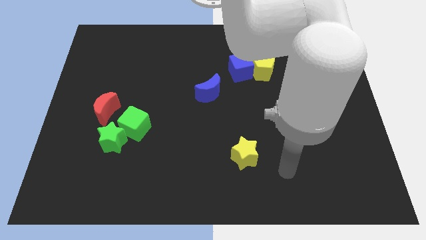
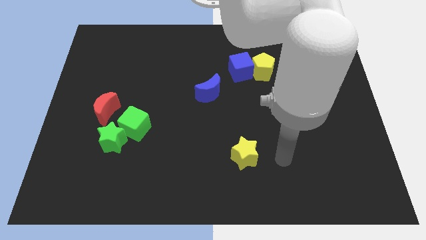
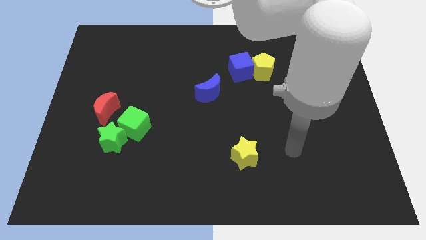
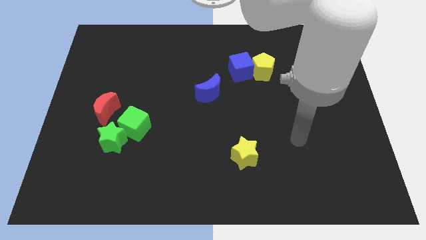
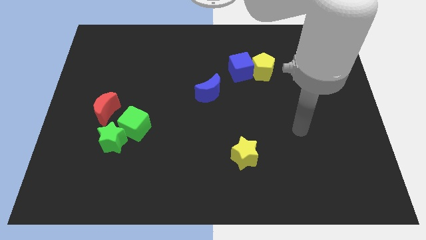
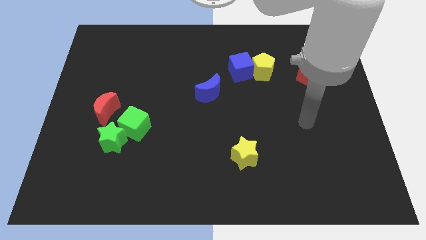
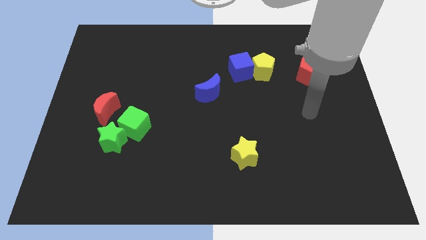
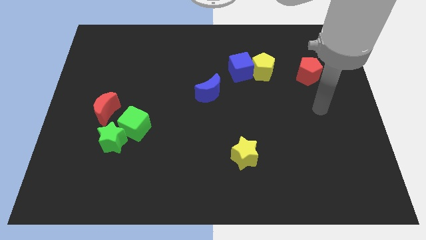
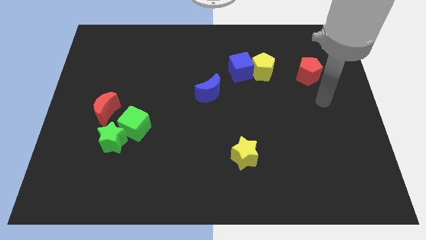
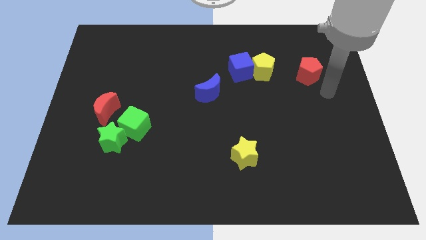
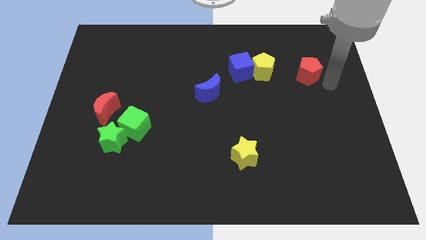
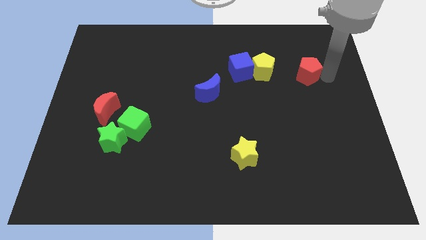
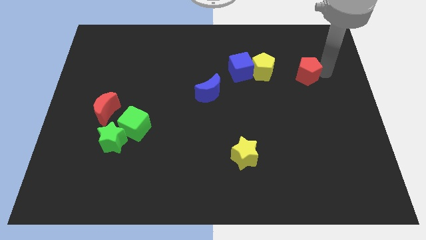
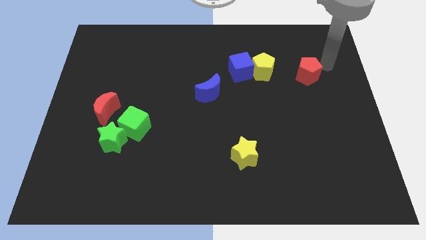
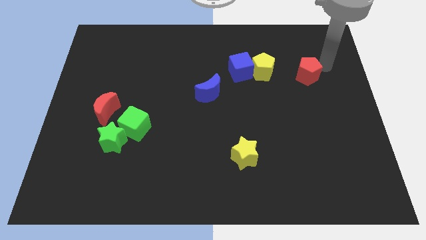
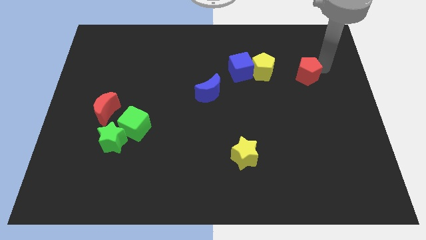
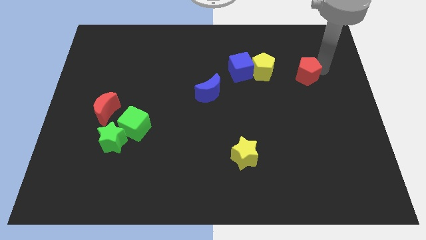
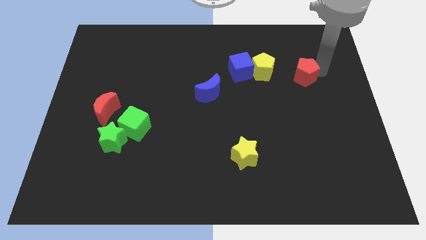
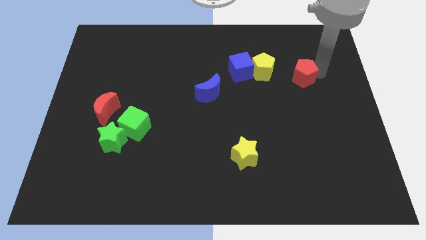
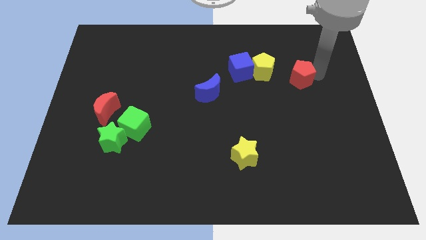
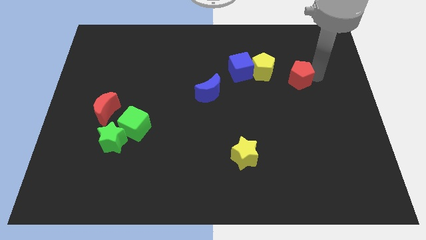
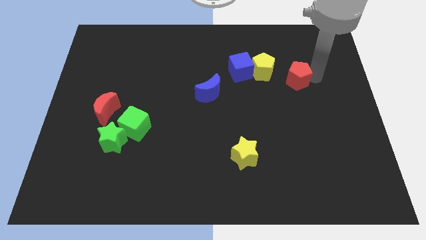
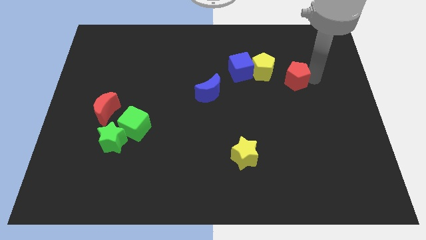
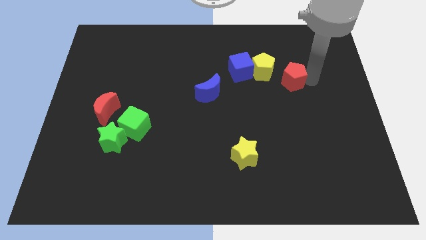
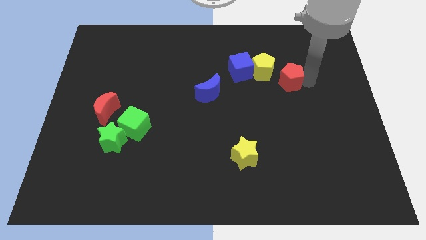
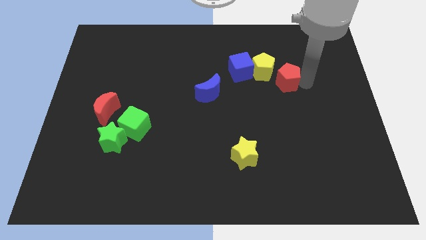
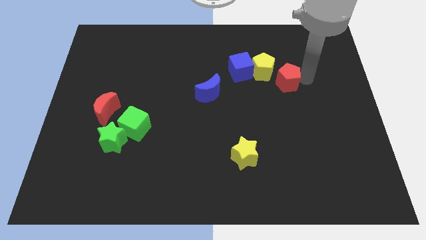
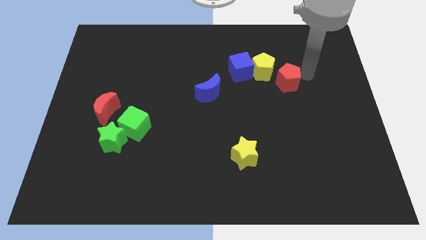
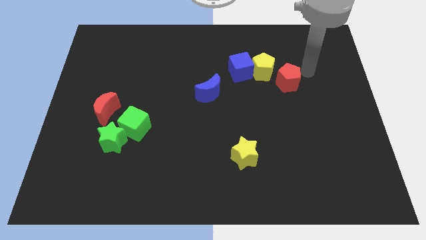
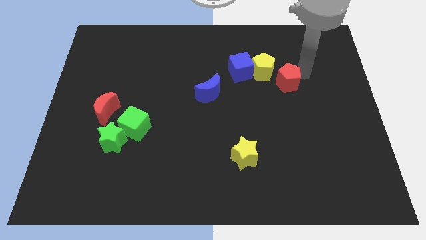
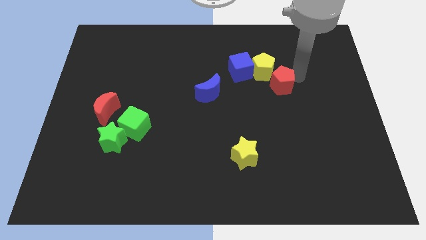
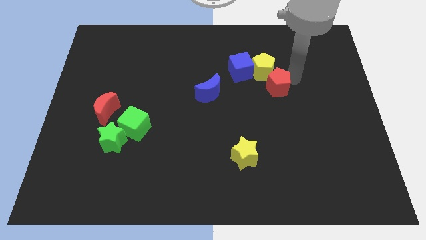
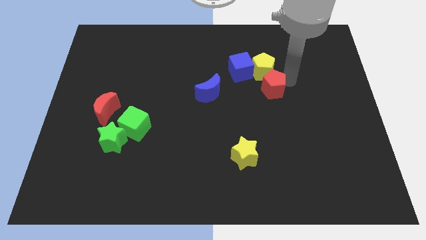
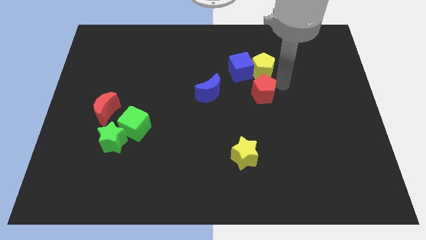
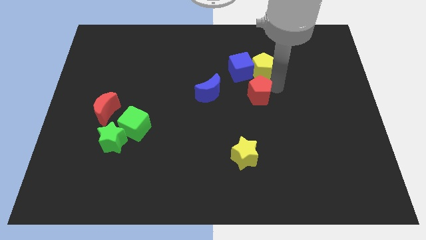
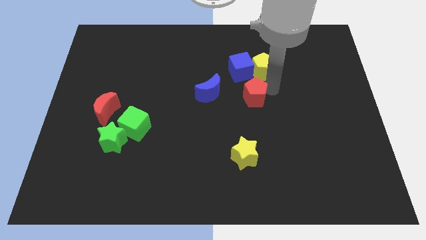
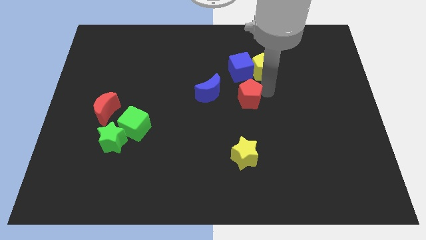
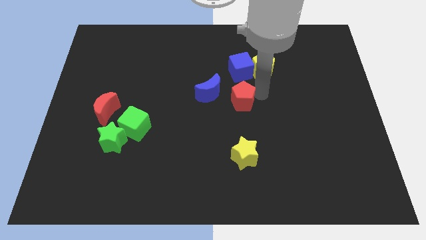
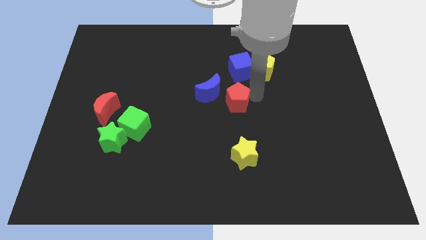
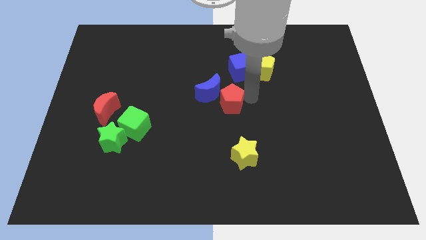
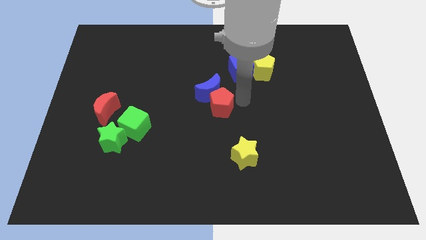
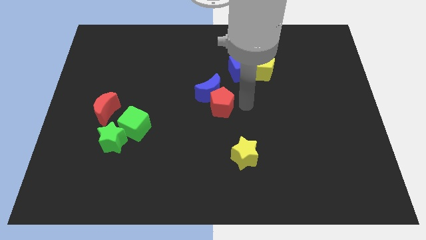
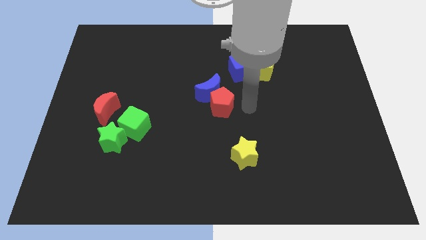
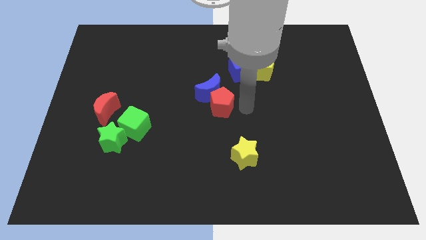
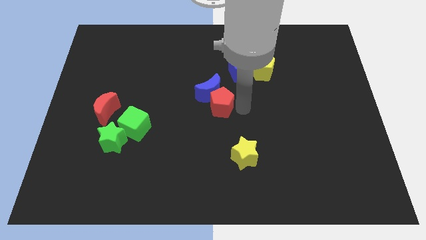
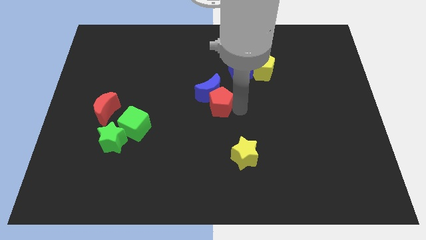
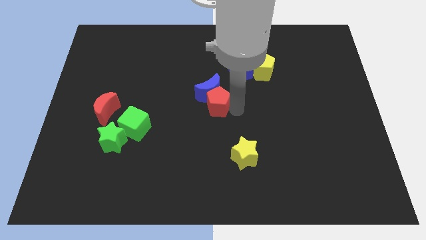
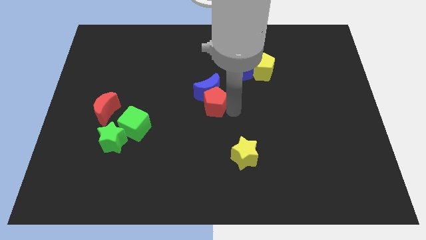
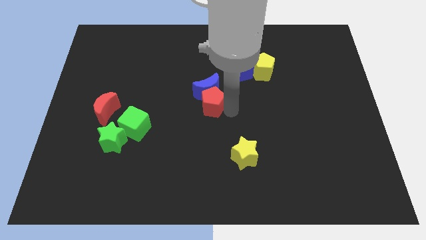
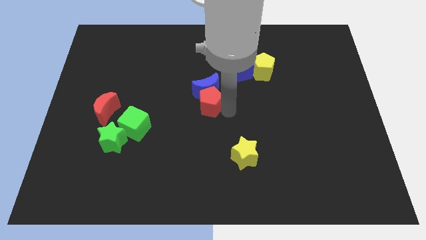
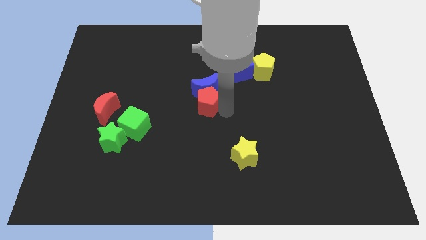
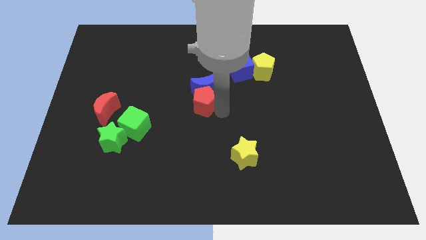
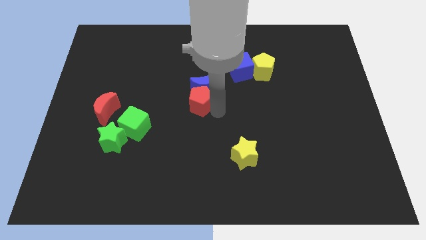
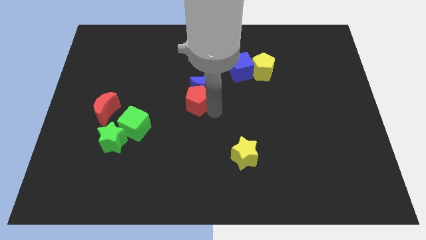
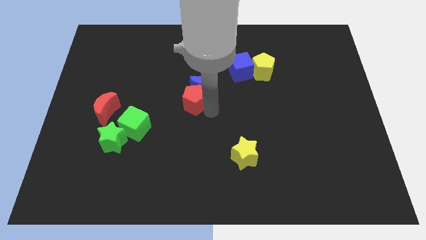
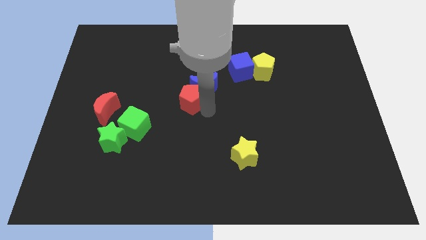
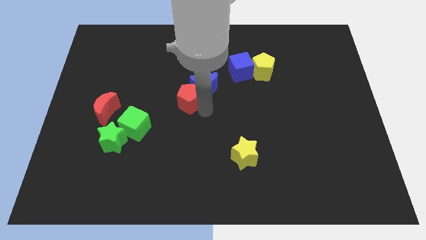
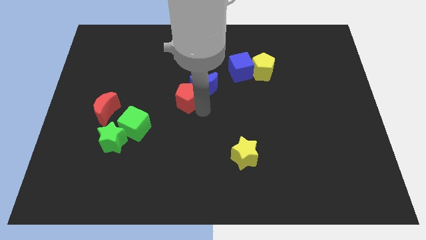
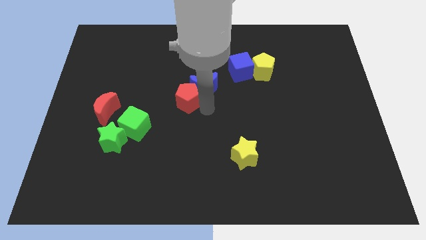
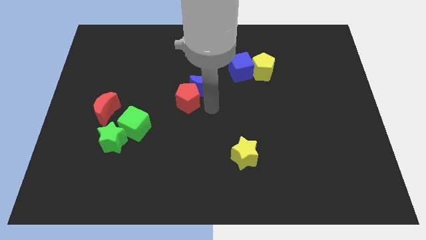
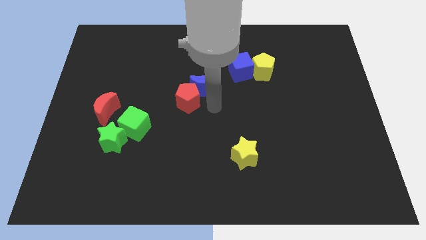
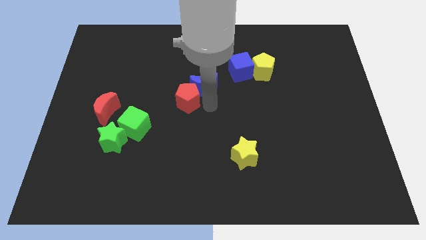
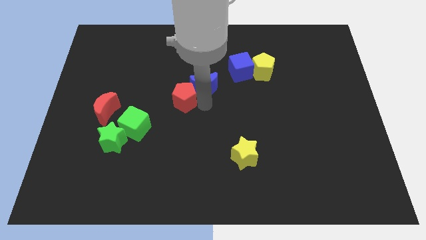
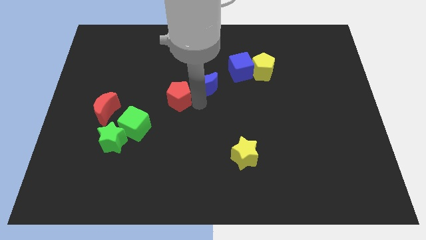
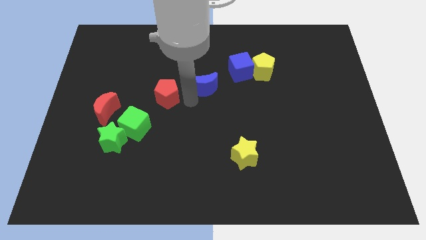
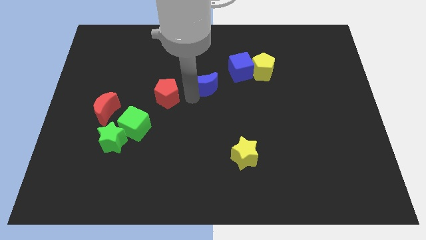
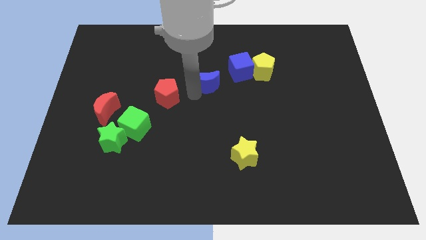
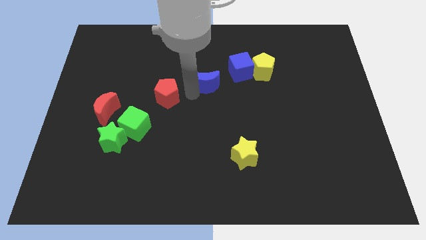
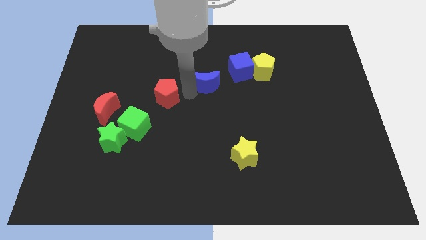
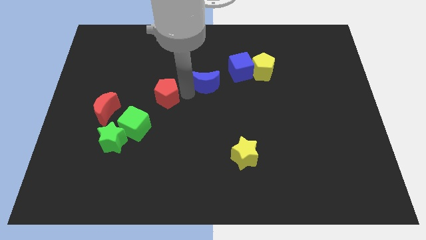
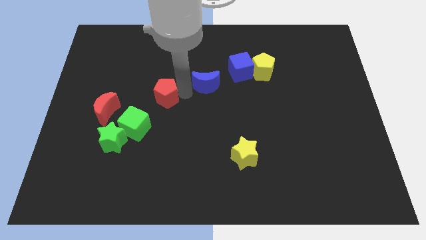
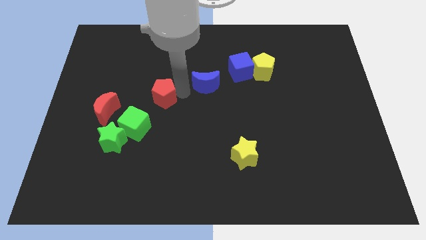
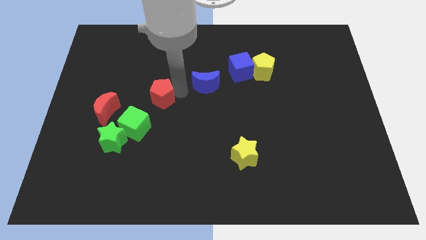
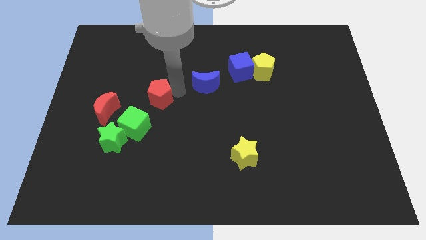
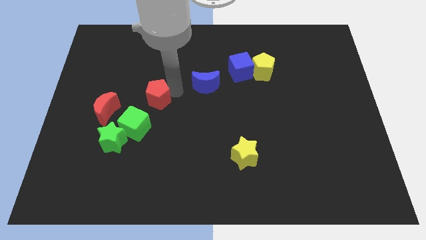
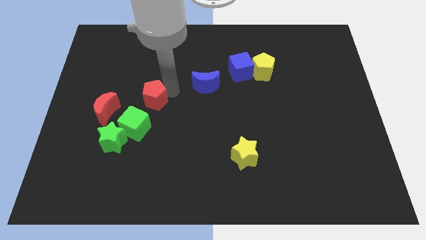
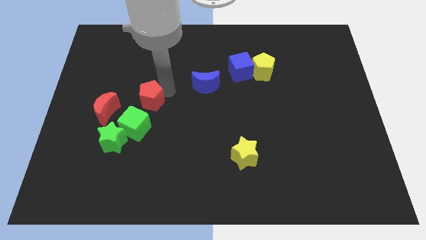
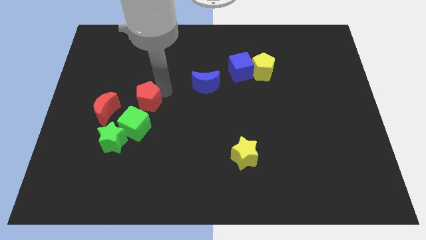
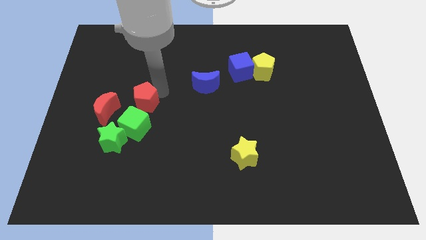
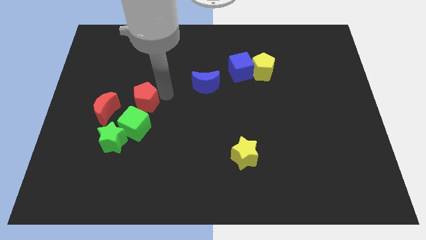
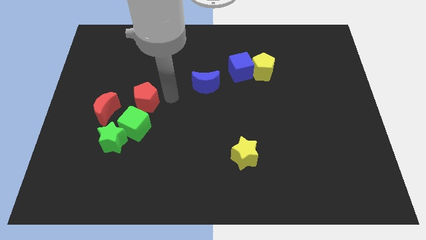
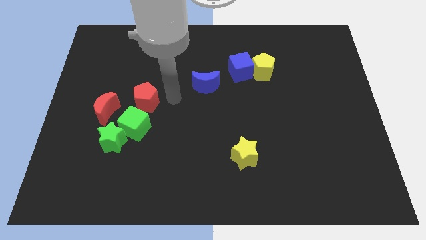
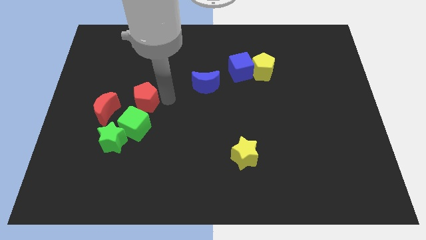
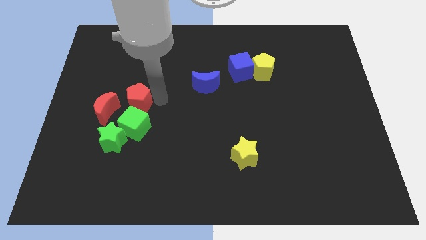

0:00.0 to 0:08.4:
move the red pentagon to the top side of the green star
